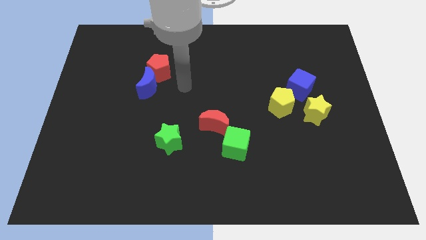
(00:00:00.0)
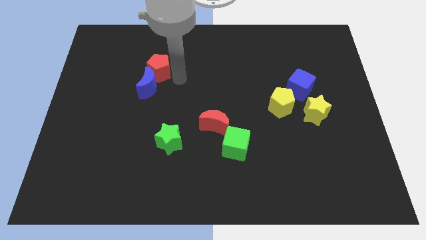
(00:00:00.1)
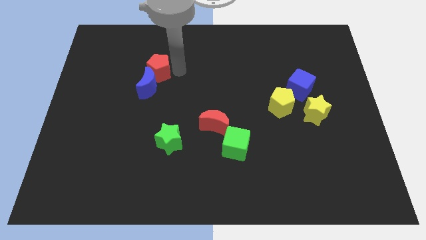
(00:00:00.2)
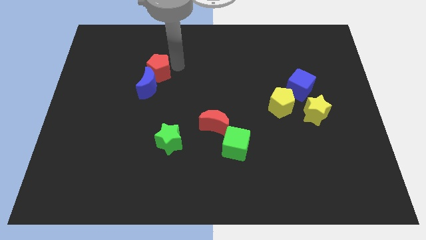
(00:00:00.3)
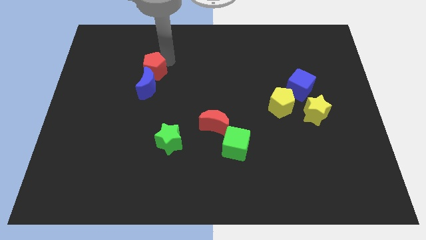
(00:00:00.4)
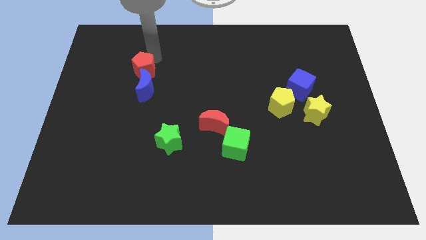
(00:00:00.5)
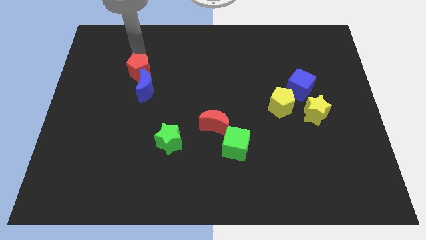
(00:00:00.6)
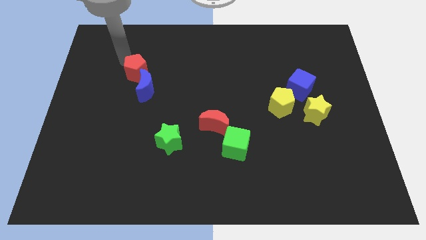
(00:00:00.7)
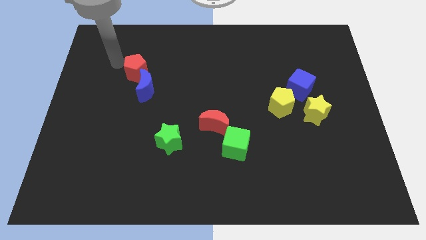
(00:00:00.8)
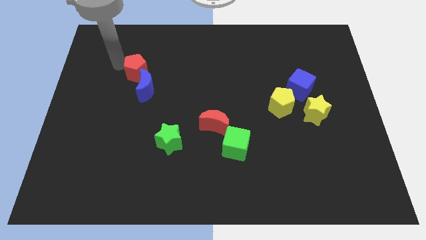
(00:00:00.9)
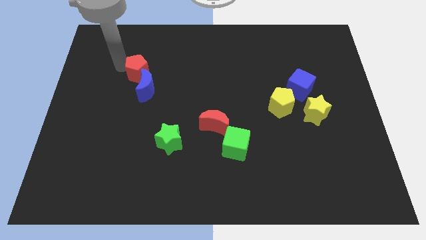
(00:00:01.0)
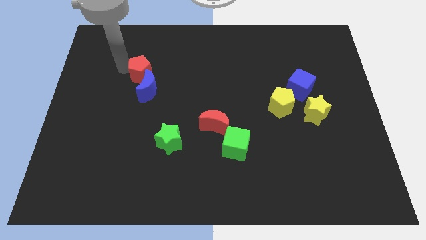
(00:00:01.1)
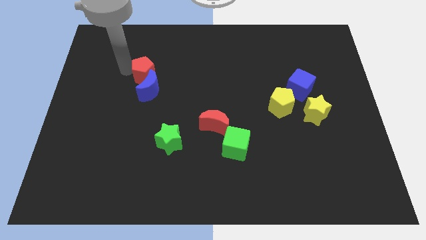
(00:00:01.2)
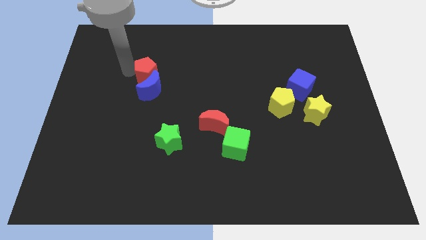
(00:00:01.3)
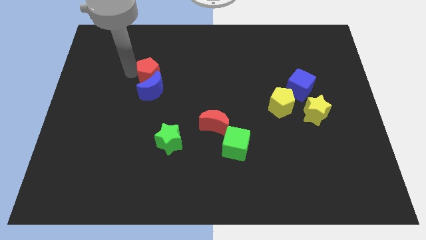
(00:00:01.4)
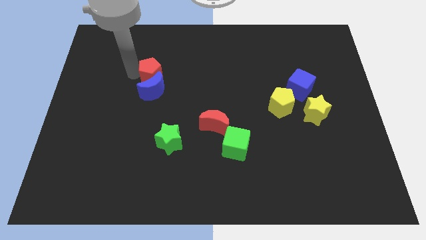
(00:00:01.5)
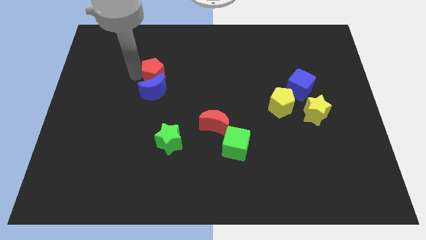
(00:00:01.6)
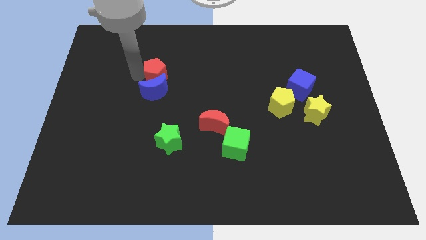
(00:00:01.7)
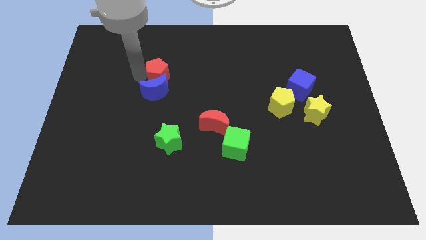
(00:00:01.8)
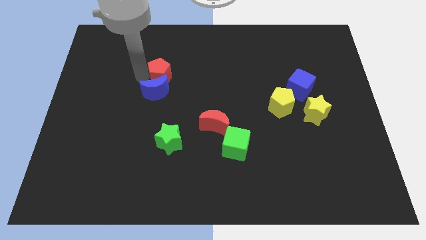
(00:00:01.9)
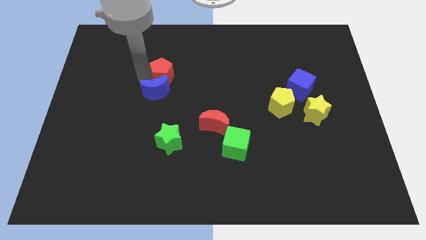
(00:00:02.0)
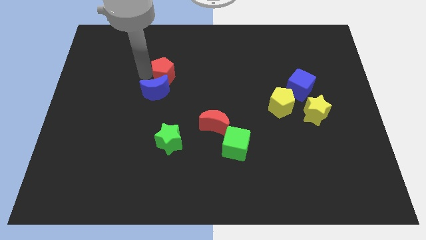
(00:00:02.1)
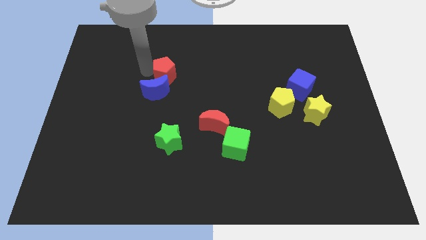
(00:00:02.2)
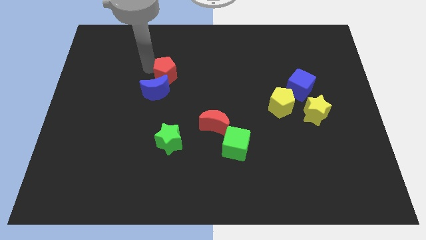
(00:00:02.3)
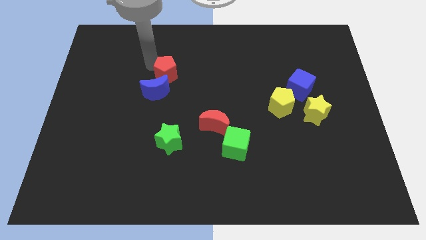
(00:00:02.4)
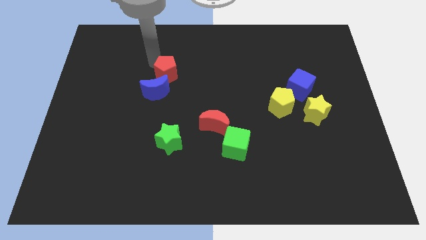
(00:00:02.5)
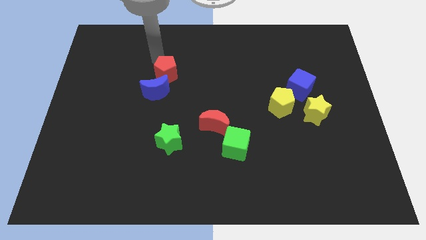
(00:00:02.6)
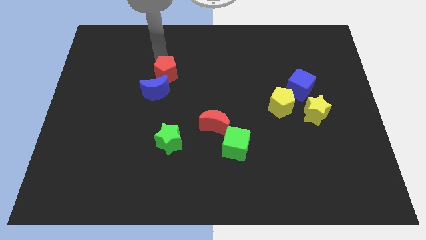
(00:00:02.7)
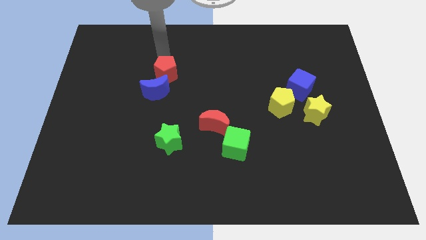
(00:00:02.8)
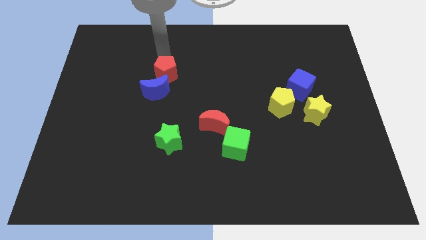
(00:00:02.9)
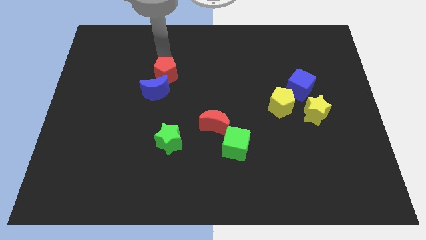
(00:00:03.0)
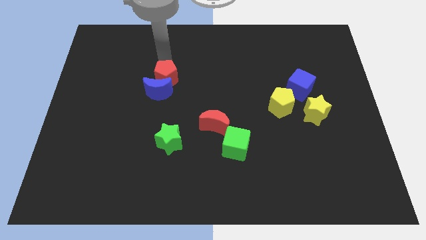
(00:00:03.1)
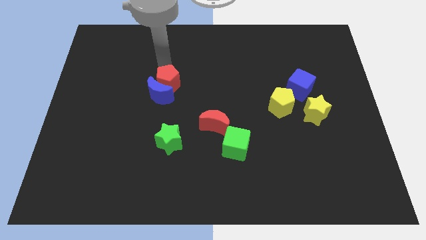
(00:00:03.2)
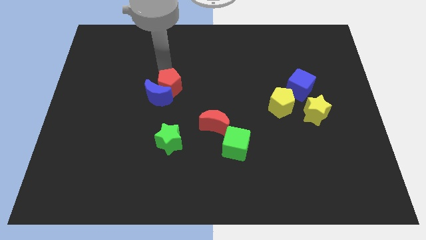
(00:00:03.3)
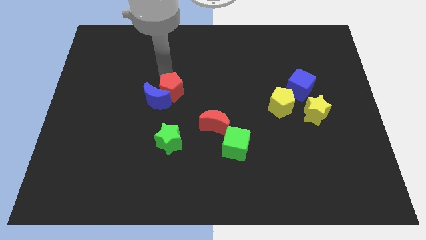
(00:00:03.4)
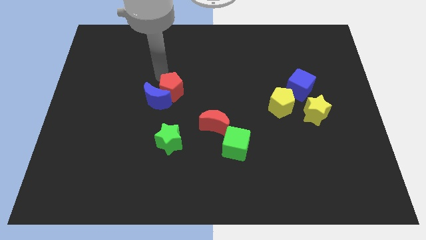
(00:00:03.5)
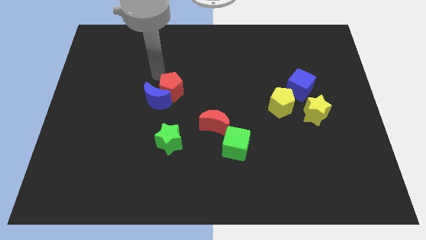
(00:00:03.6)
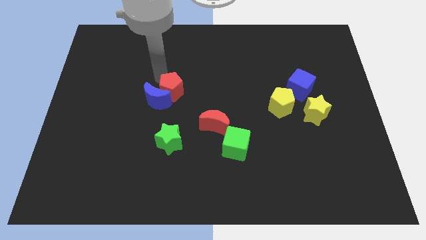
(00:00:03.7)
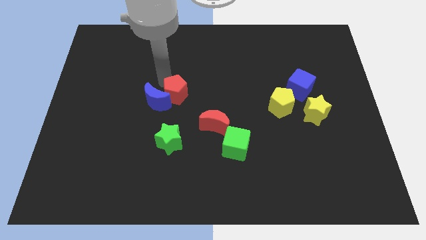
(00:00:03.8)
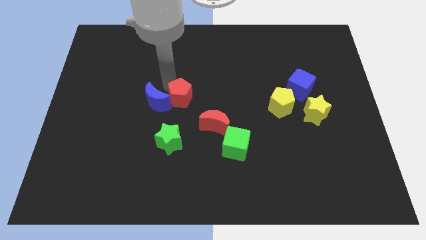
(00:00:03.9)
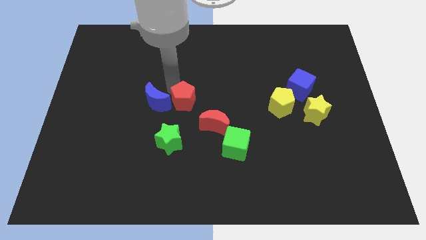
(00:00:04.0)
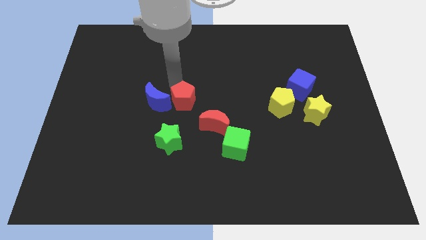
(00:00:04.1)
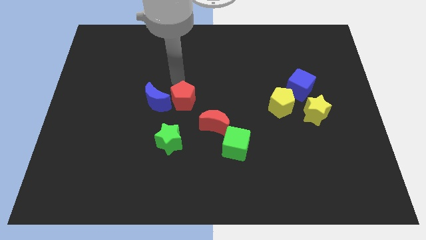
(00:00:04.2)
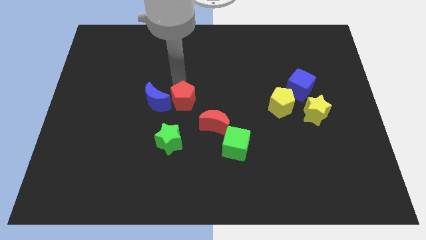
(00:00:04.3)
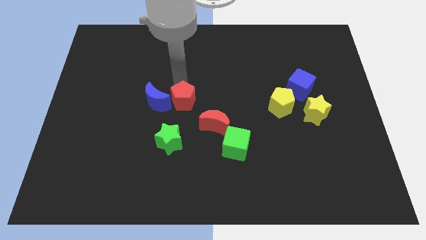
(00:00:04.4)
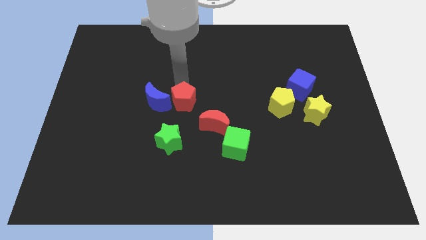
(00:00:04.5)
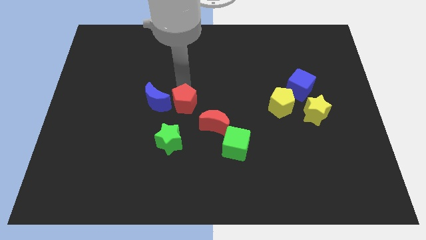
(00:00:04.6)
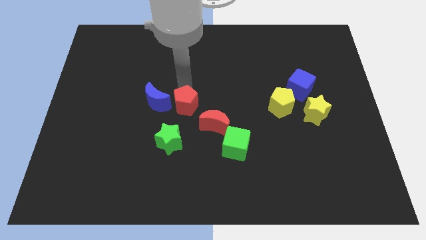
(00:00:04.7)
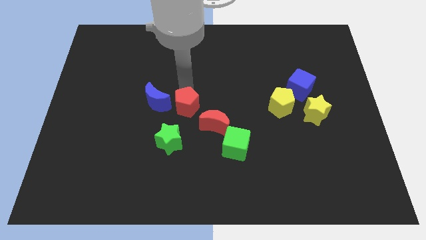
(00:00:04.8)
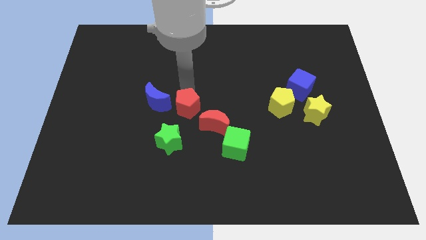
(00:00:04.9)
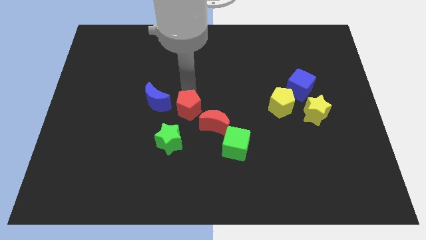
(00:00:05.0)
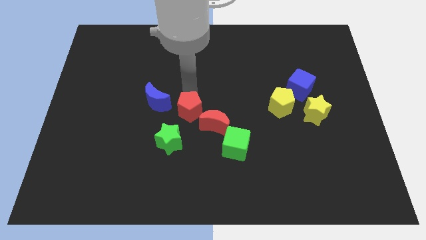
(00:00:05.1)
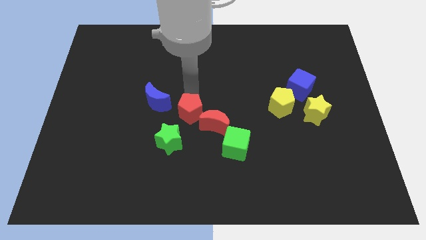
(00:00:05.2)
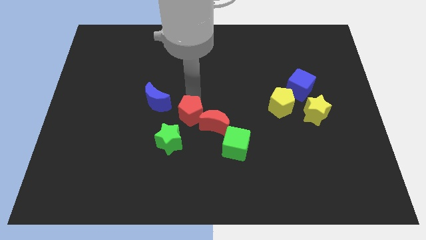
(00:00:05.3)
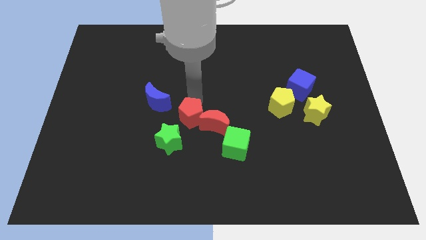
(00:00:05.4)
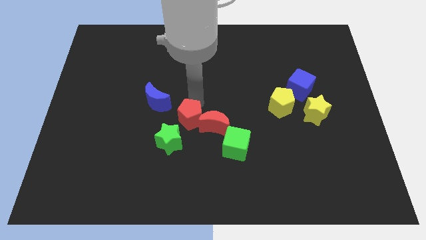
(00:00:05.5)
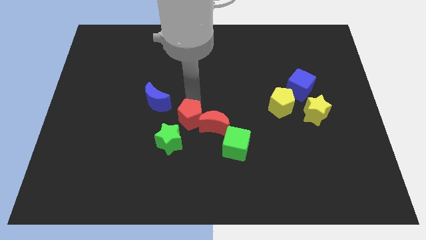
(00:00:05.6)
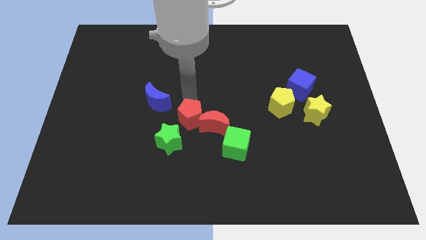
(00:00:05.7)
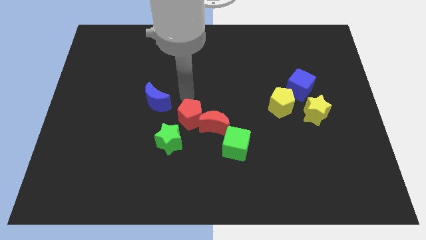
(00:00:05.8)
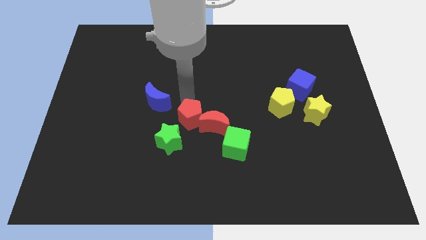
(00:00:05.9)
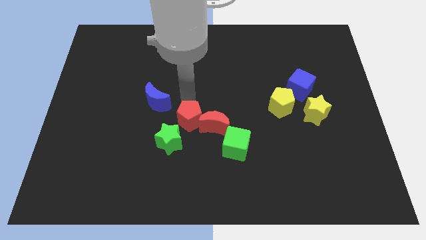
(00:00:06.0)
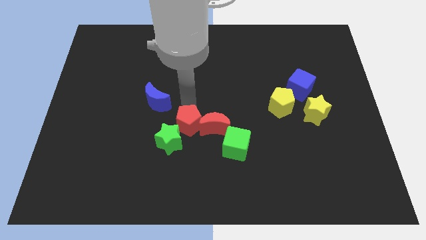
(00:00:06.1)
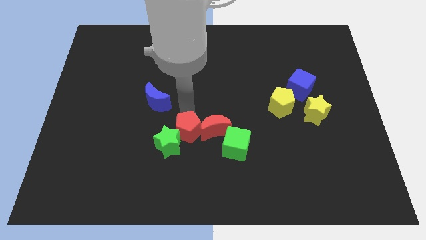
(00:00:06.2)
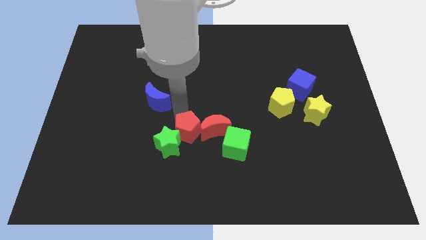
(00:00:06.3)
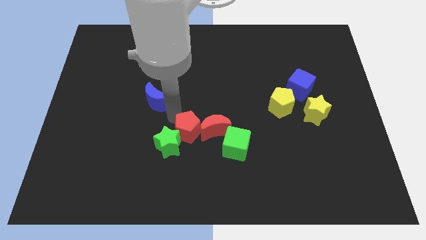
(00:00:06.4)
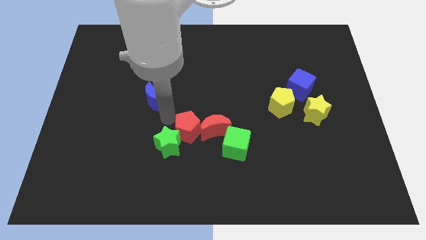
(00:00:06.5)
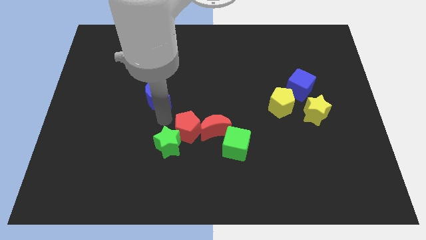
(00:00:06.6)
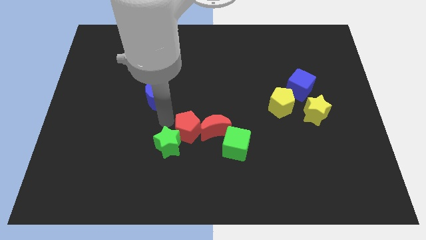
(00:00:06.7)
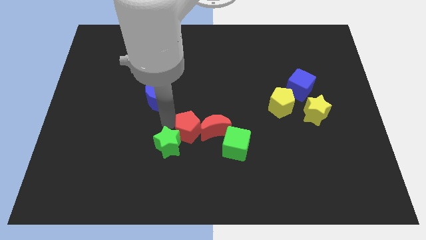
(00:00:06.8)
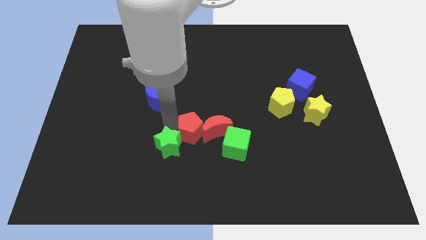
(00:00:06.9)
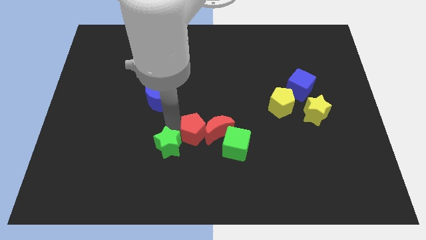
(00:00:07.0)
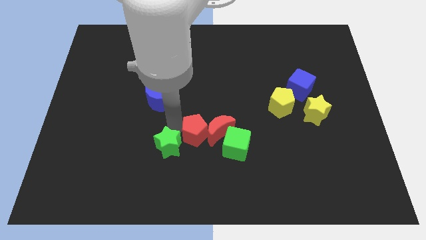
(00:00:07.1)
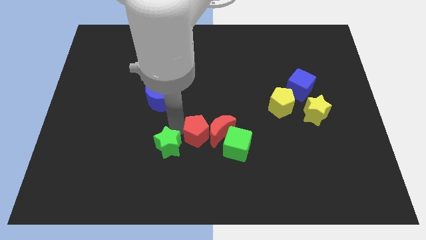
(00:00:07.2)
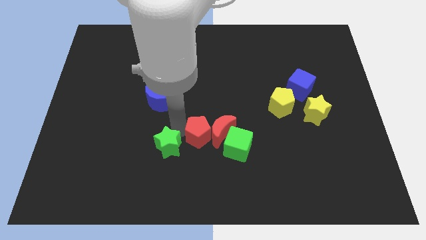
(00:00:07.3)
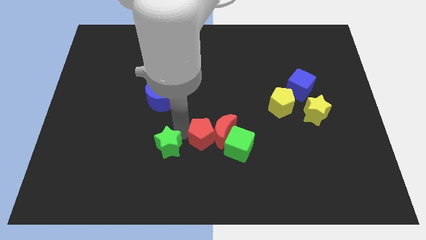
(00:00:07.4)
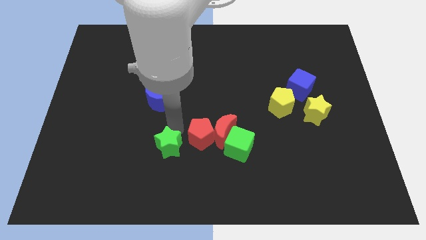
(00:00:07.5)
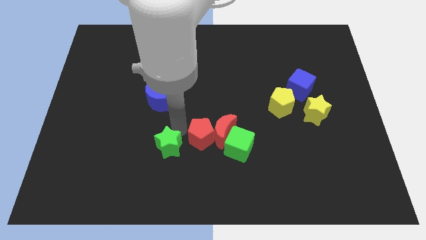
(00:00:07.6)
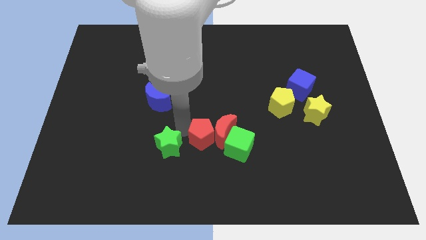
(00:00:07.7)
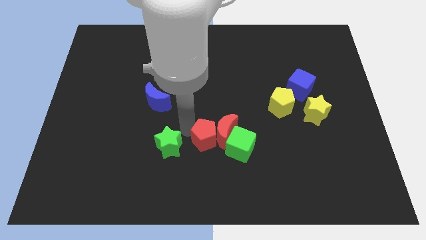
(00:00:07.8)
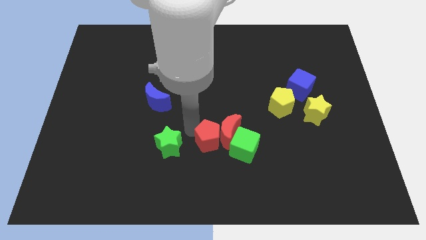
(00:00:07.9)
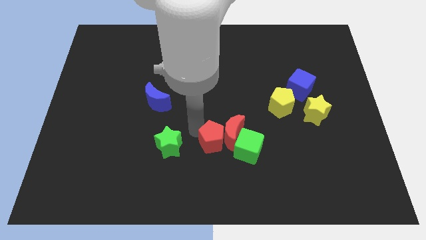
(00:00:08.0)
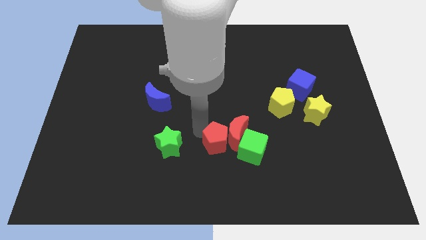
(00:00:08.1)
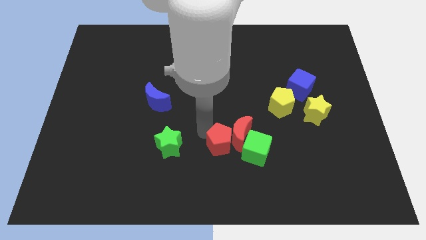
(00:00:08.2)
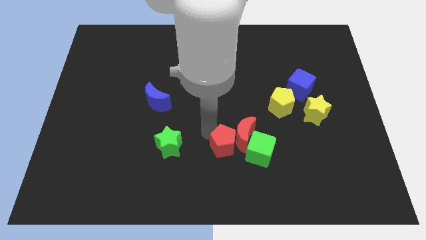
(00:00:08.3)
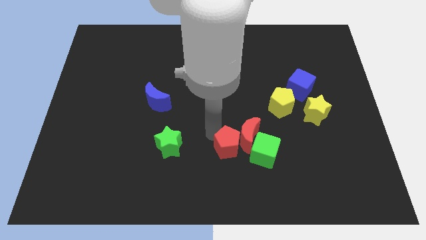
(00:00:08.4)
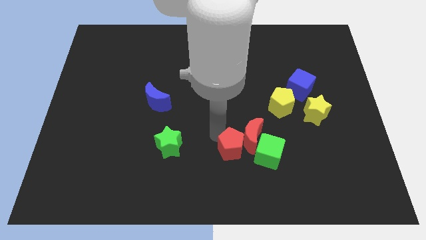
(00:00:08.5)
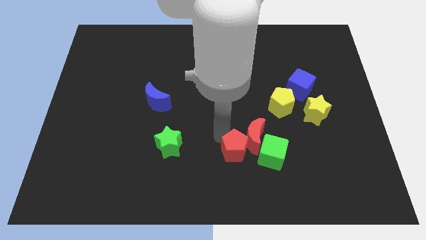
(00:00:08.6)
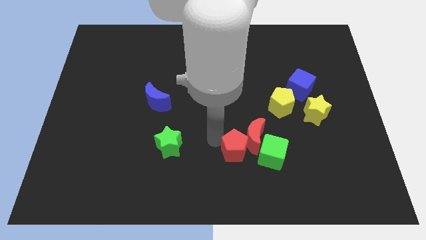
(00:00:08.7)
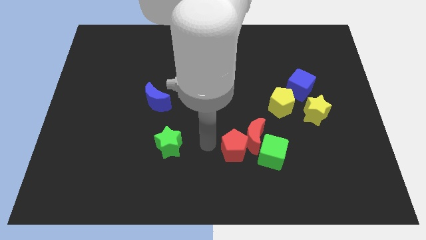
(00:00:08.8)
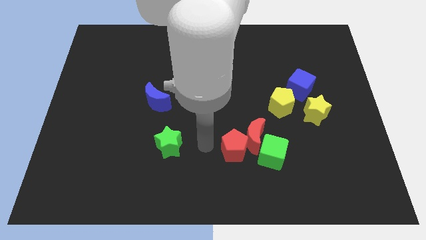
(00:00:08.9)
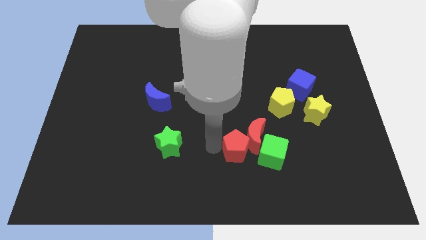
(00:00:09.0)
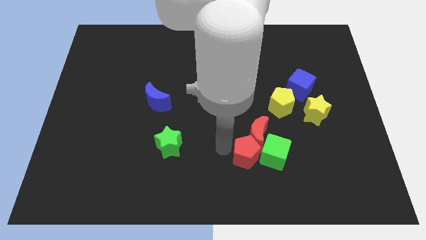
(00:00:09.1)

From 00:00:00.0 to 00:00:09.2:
push the red pentagon next to the green cube
